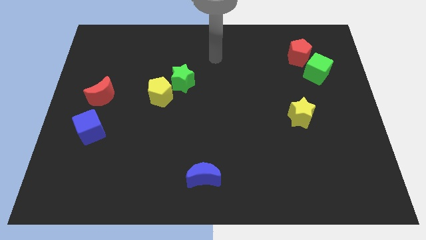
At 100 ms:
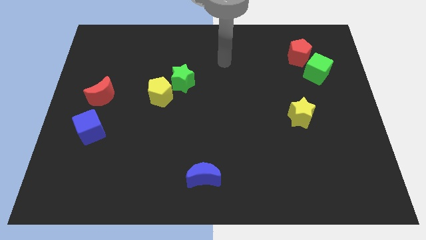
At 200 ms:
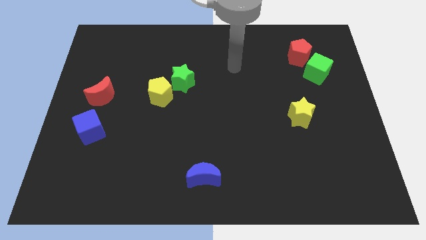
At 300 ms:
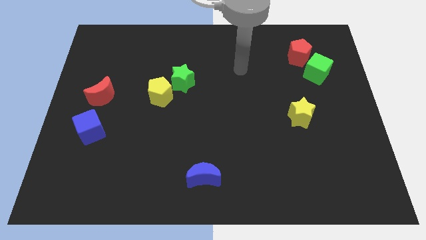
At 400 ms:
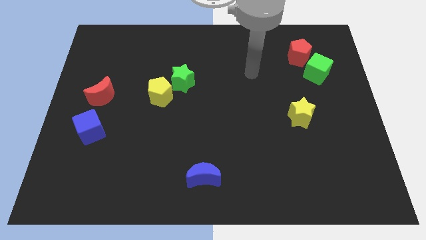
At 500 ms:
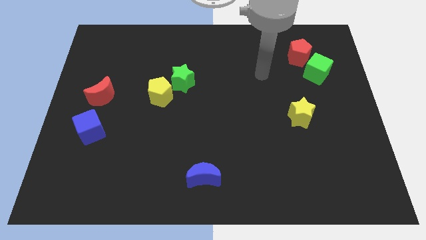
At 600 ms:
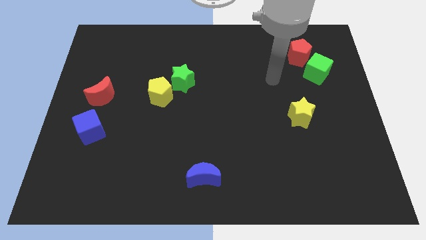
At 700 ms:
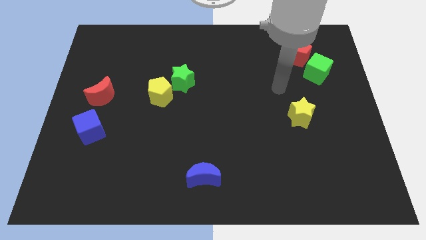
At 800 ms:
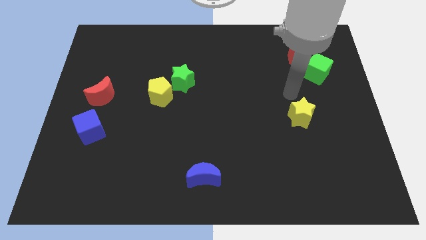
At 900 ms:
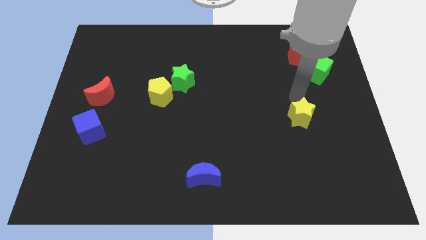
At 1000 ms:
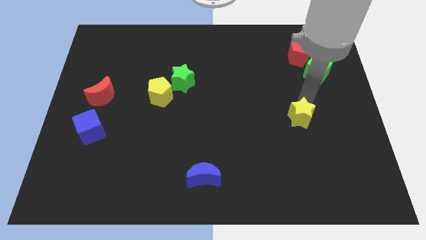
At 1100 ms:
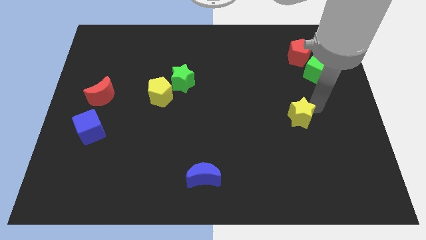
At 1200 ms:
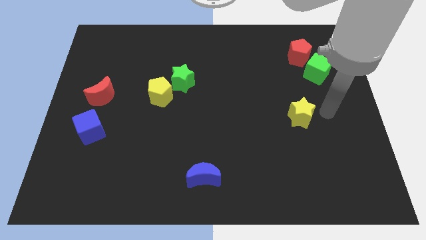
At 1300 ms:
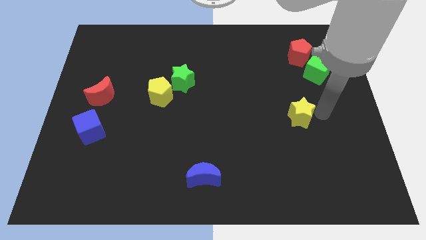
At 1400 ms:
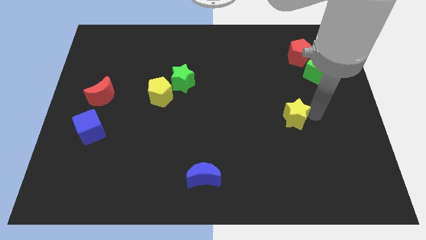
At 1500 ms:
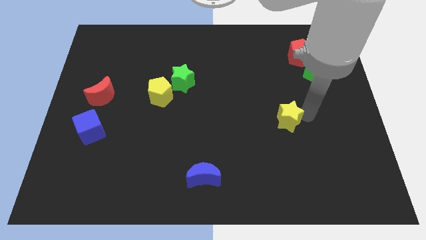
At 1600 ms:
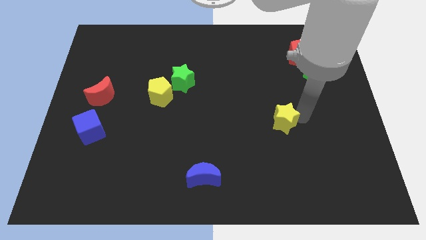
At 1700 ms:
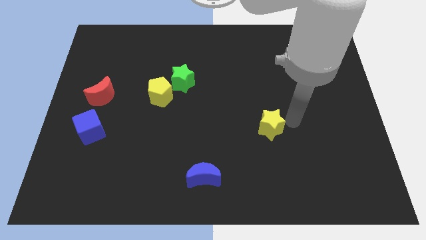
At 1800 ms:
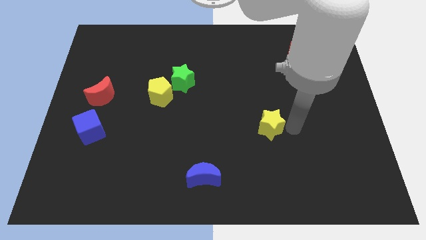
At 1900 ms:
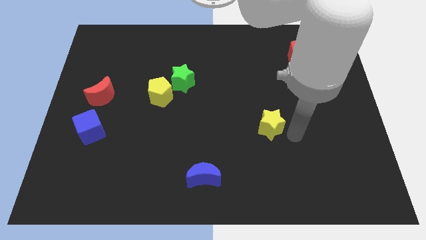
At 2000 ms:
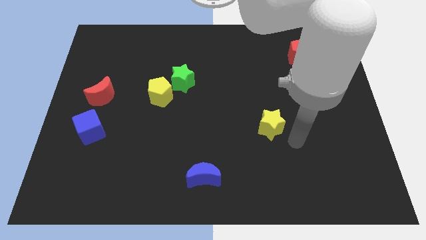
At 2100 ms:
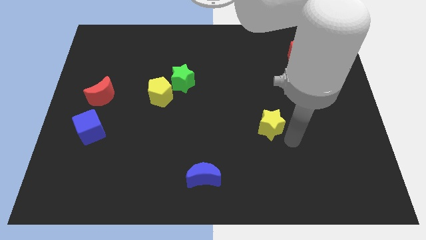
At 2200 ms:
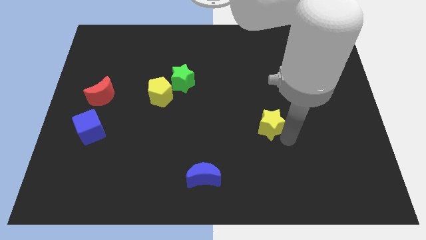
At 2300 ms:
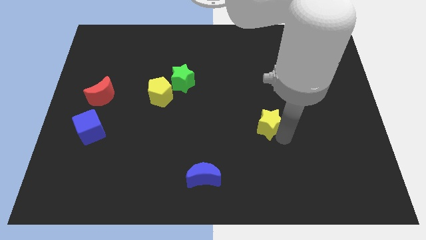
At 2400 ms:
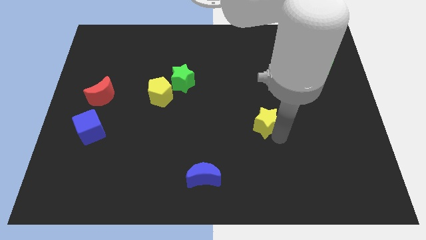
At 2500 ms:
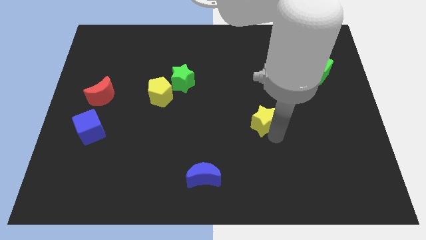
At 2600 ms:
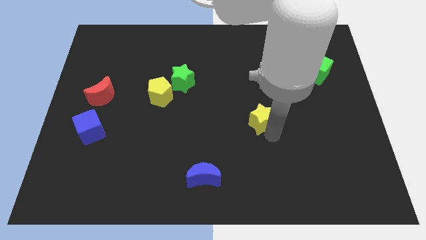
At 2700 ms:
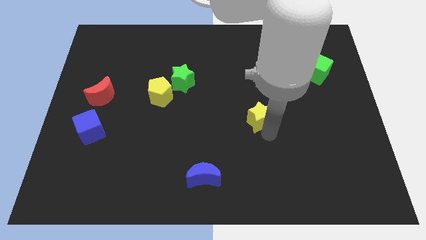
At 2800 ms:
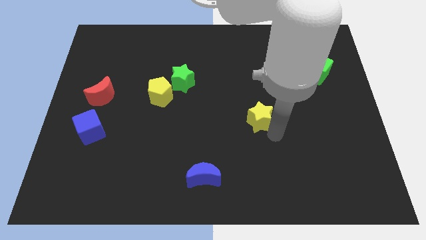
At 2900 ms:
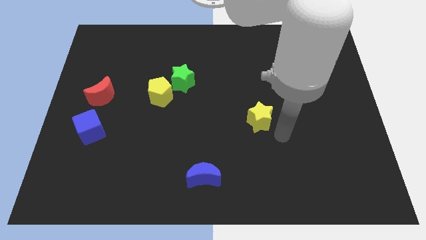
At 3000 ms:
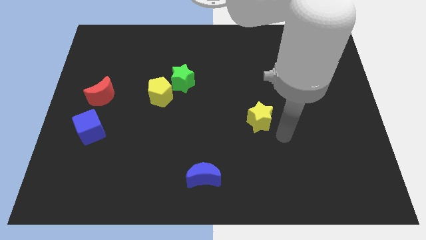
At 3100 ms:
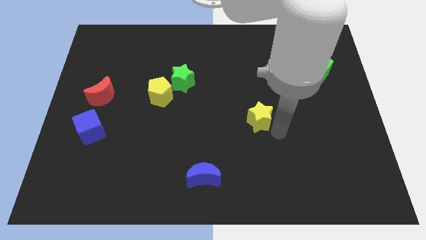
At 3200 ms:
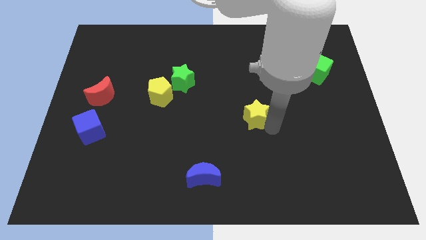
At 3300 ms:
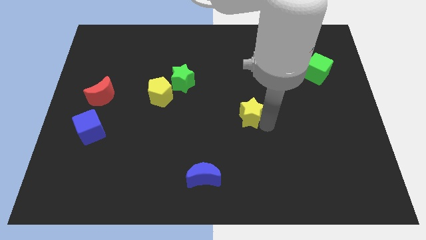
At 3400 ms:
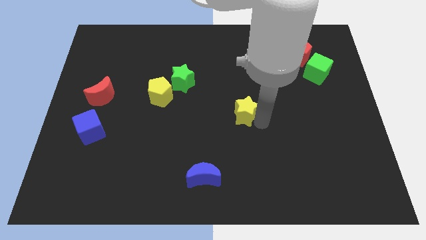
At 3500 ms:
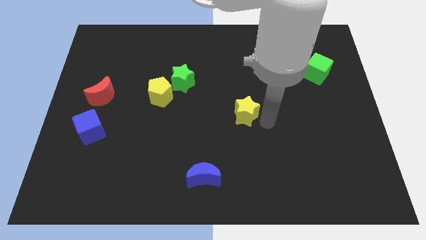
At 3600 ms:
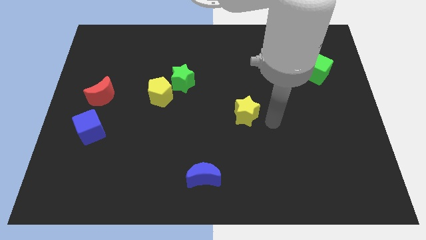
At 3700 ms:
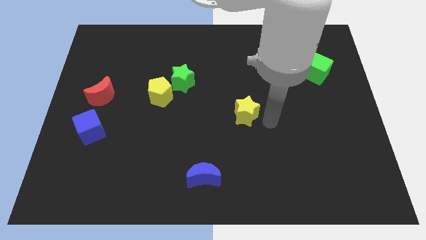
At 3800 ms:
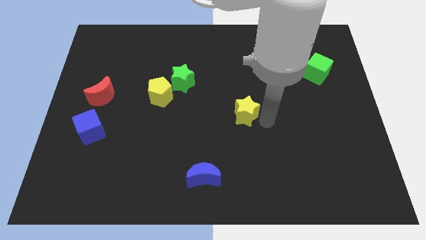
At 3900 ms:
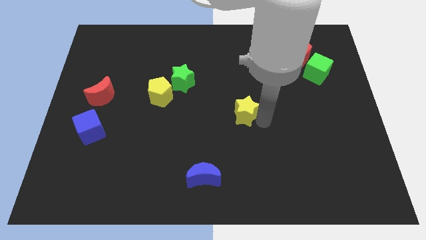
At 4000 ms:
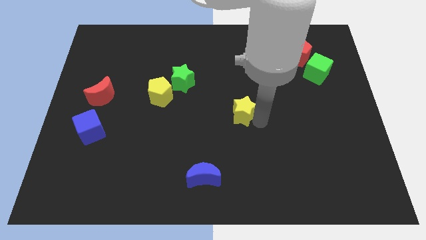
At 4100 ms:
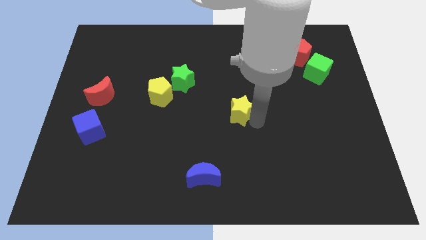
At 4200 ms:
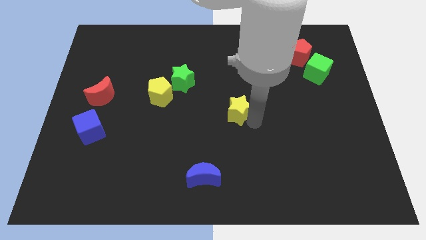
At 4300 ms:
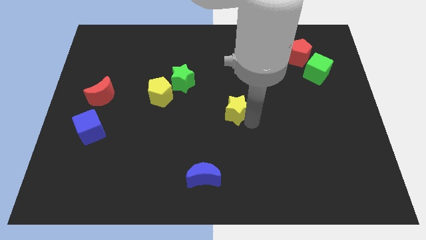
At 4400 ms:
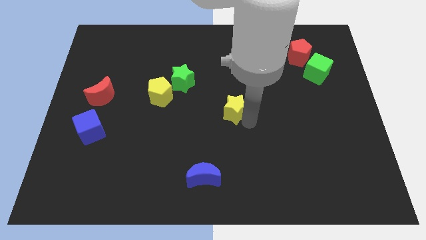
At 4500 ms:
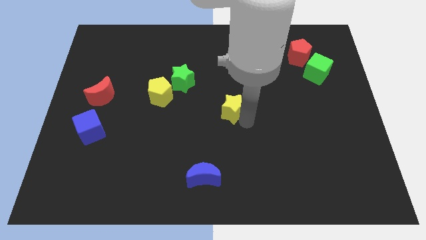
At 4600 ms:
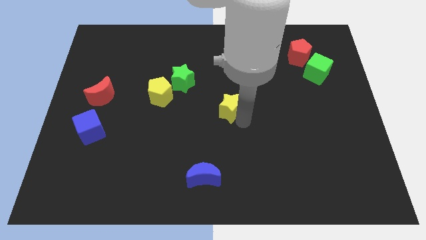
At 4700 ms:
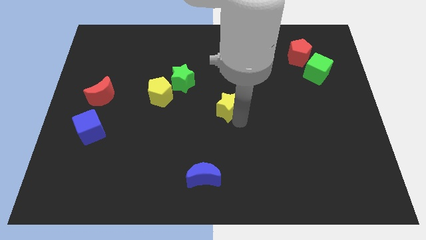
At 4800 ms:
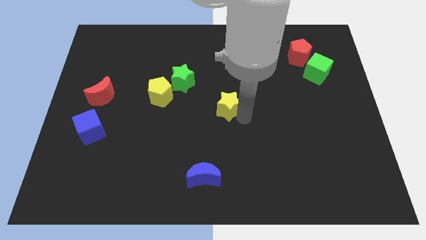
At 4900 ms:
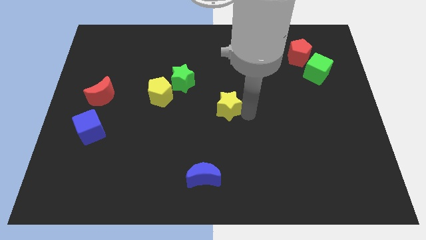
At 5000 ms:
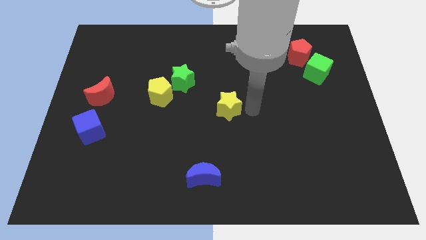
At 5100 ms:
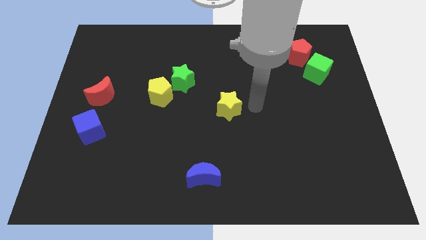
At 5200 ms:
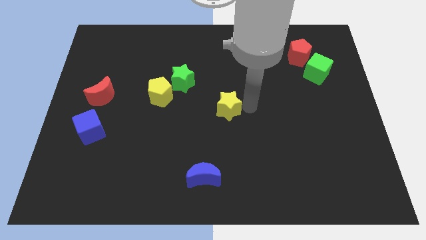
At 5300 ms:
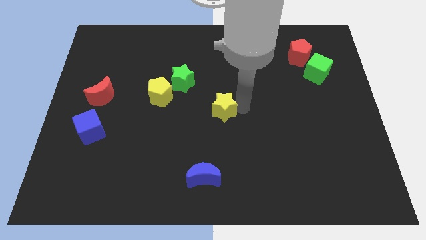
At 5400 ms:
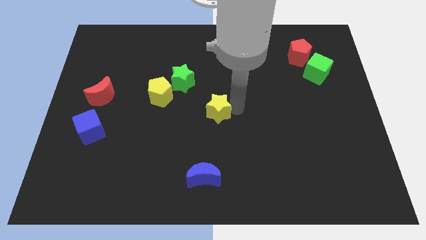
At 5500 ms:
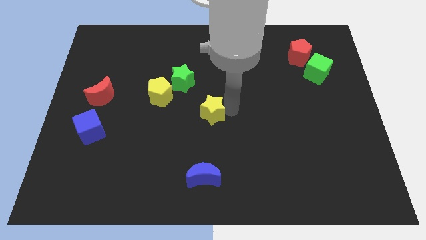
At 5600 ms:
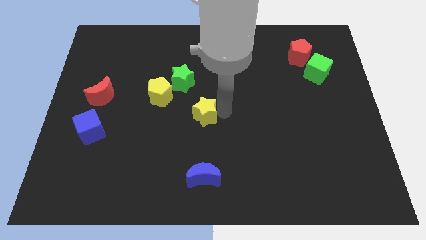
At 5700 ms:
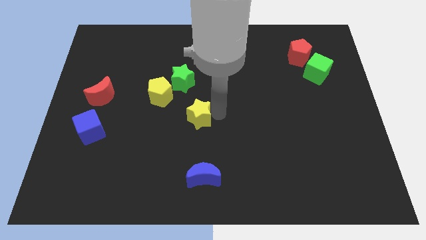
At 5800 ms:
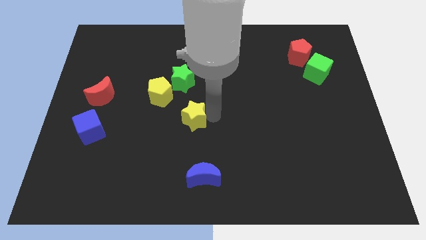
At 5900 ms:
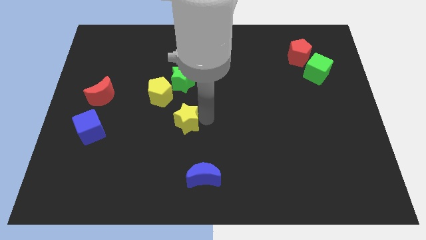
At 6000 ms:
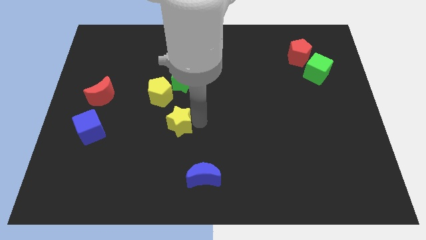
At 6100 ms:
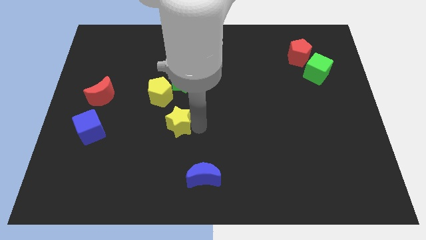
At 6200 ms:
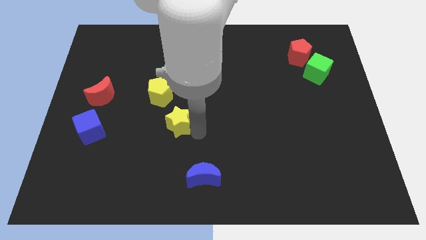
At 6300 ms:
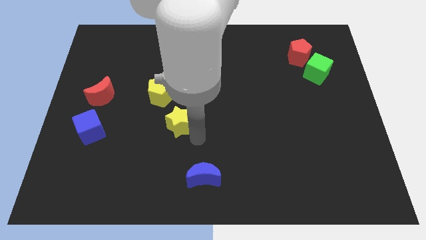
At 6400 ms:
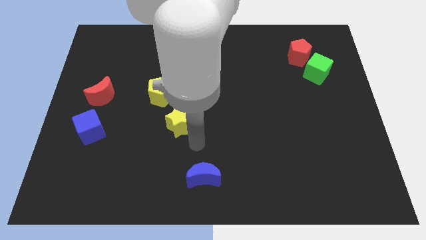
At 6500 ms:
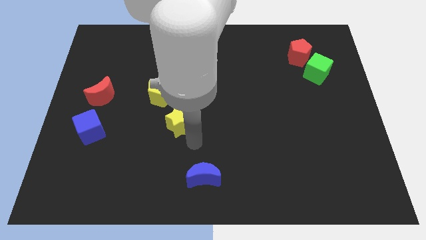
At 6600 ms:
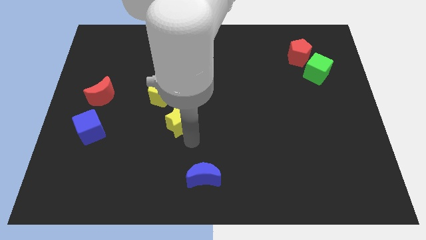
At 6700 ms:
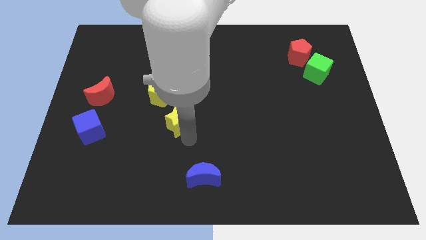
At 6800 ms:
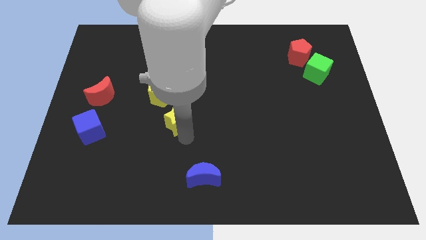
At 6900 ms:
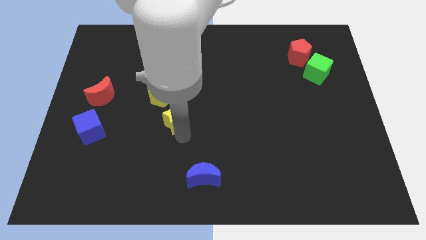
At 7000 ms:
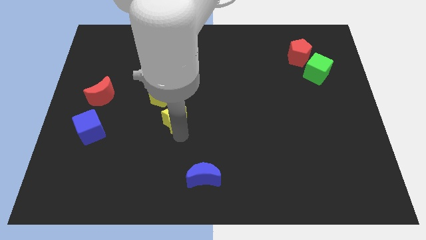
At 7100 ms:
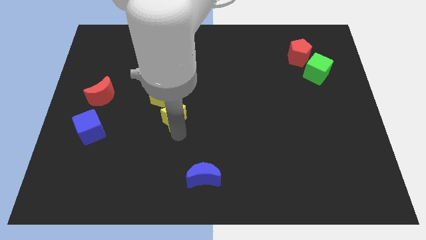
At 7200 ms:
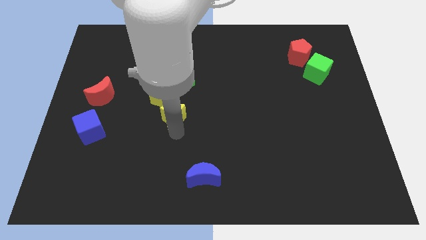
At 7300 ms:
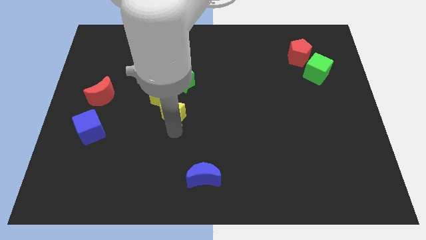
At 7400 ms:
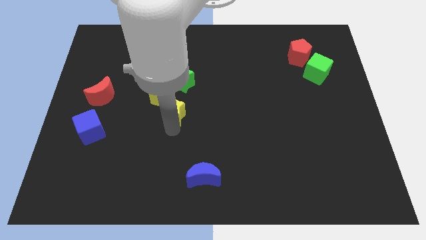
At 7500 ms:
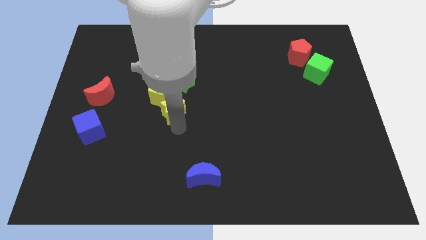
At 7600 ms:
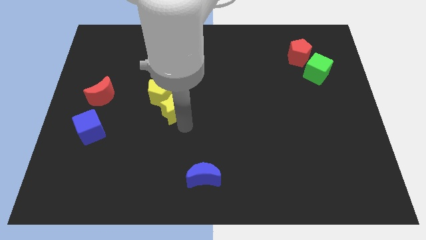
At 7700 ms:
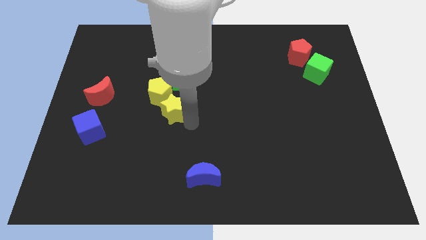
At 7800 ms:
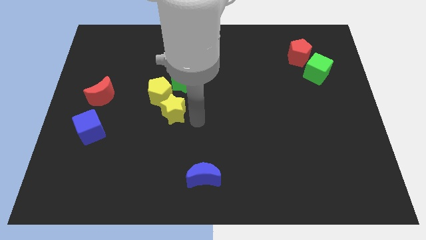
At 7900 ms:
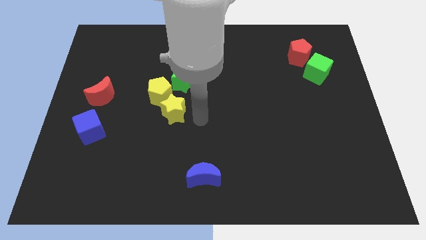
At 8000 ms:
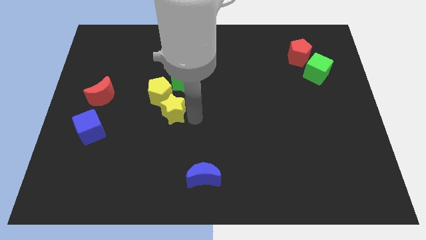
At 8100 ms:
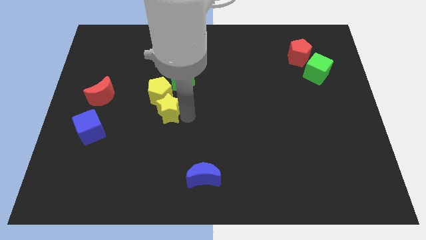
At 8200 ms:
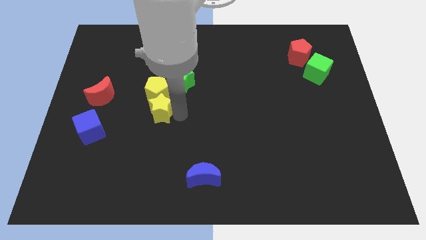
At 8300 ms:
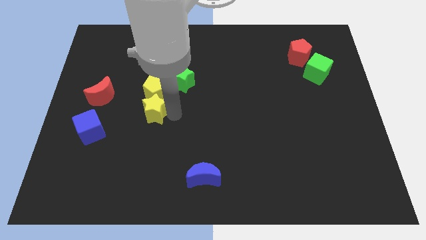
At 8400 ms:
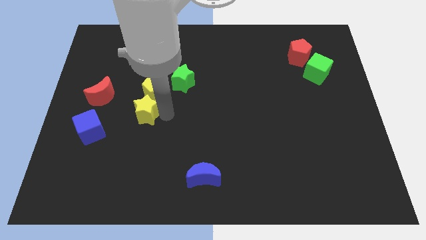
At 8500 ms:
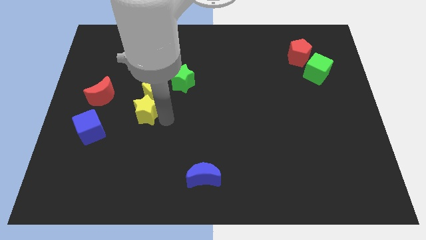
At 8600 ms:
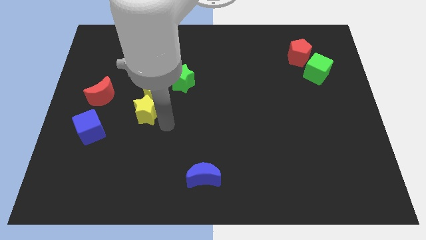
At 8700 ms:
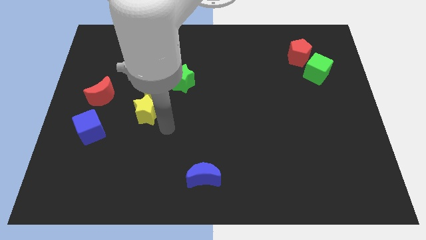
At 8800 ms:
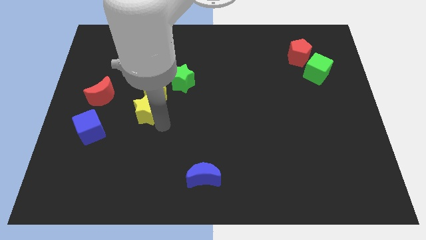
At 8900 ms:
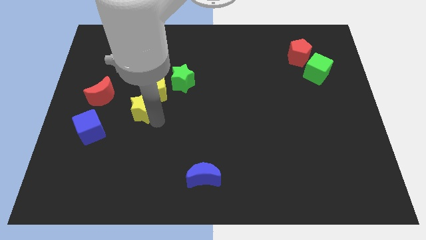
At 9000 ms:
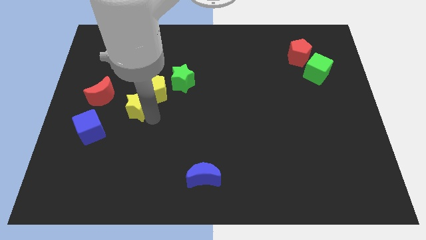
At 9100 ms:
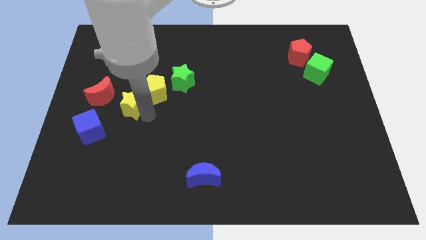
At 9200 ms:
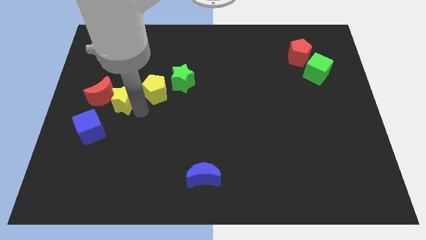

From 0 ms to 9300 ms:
push the yellow star next to the red moon
